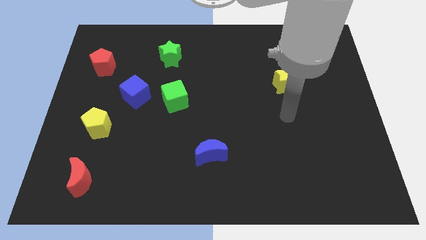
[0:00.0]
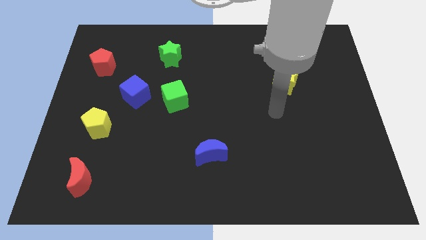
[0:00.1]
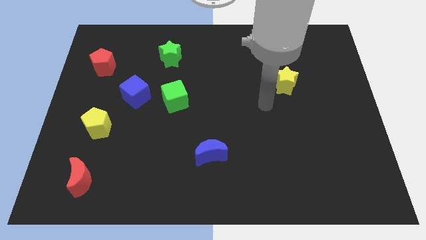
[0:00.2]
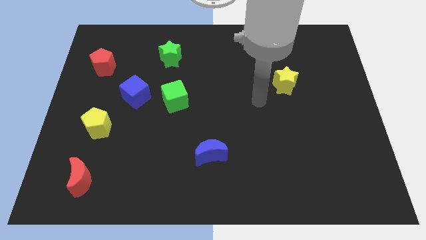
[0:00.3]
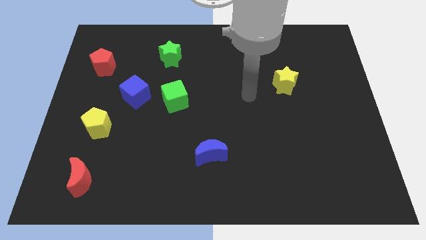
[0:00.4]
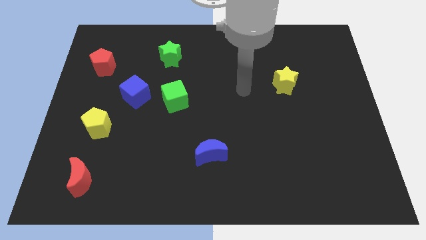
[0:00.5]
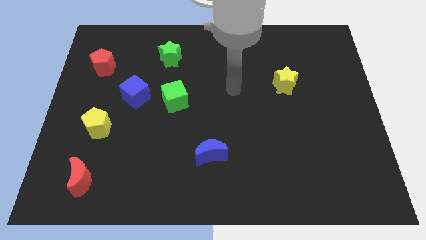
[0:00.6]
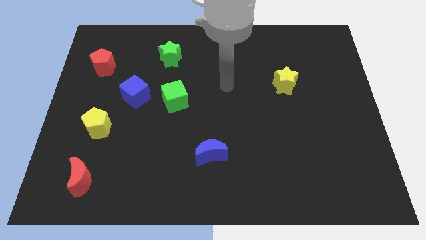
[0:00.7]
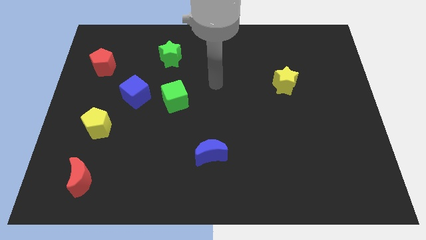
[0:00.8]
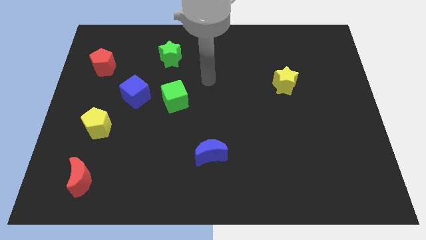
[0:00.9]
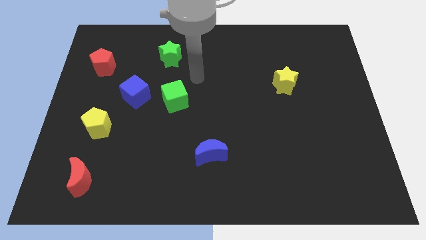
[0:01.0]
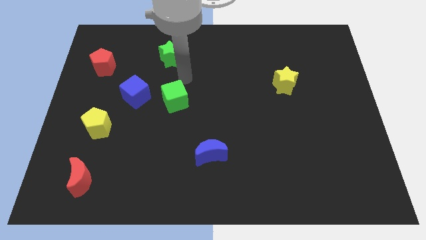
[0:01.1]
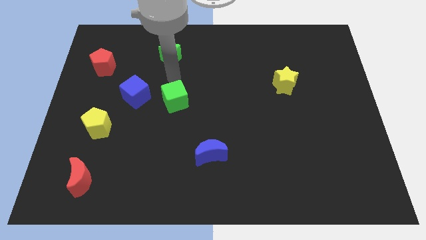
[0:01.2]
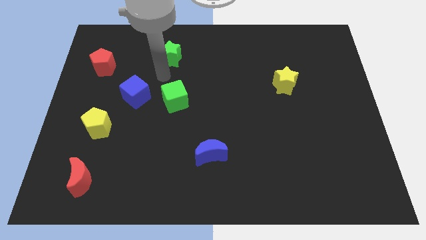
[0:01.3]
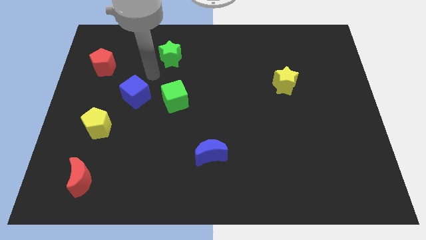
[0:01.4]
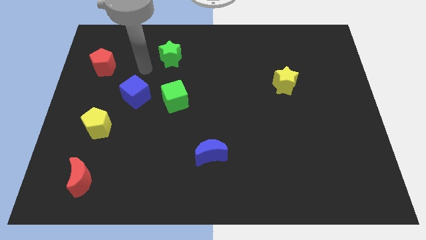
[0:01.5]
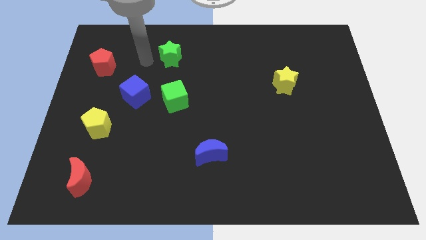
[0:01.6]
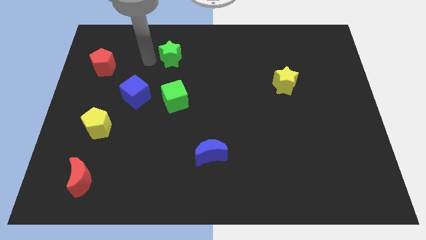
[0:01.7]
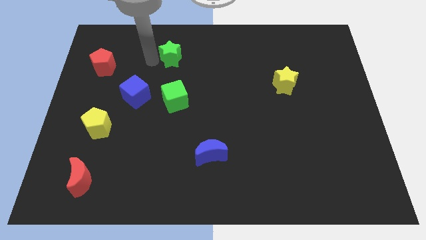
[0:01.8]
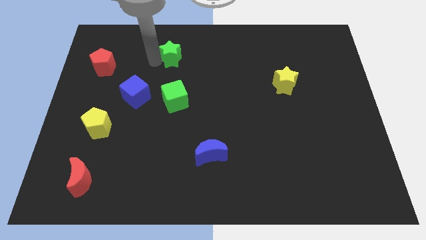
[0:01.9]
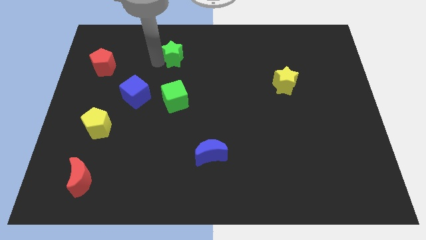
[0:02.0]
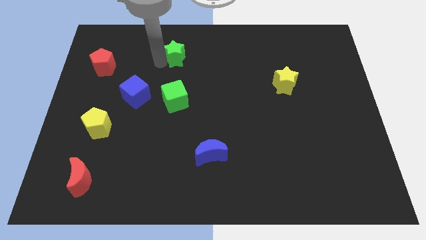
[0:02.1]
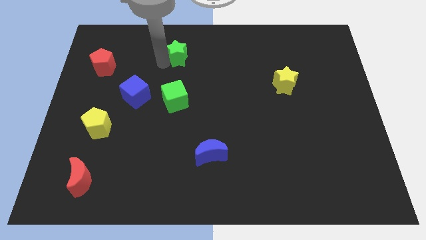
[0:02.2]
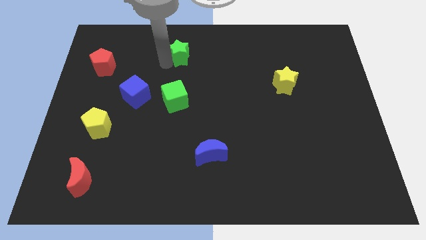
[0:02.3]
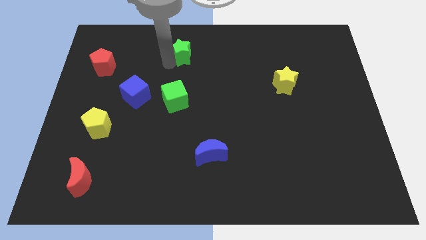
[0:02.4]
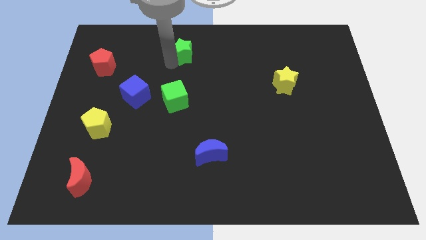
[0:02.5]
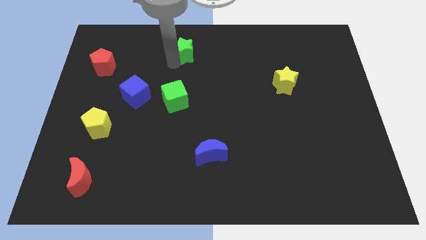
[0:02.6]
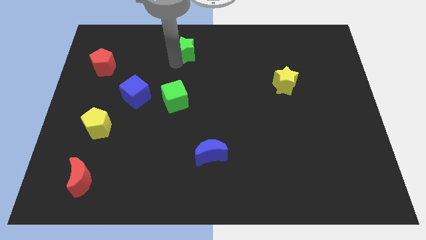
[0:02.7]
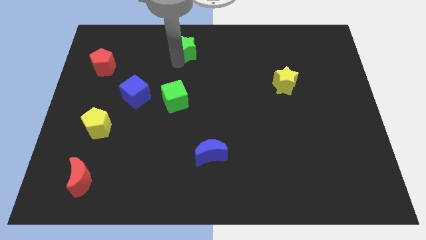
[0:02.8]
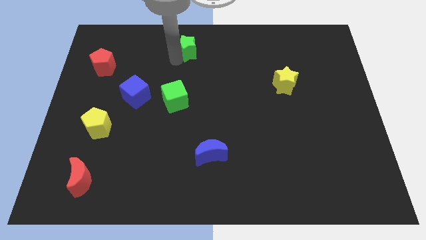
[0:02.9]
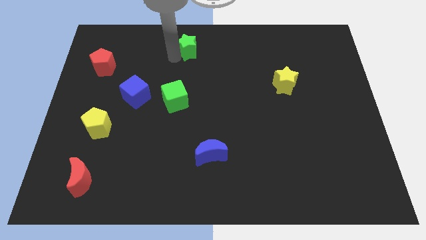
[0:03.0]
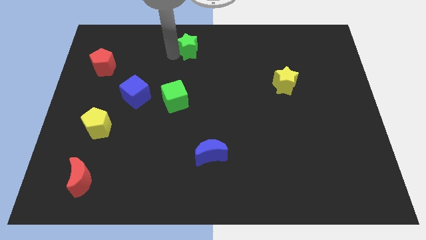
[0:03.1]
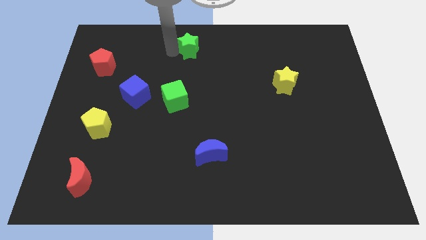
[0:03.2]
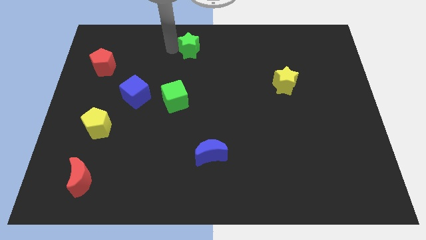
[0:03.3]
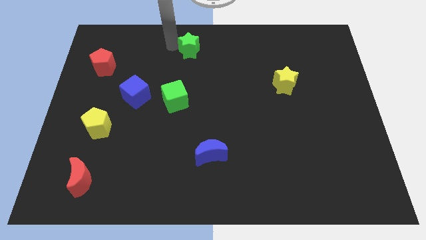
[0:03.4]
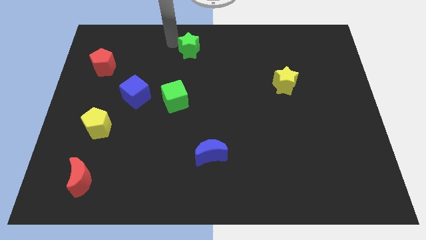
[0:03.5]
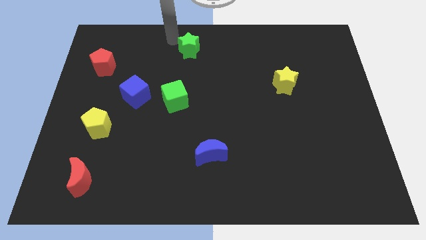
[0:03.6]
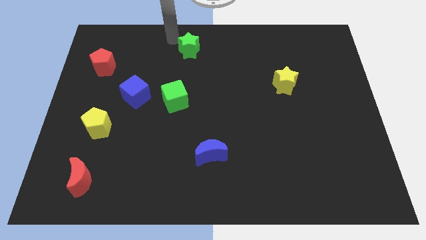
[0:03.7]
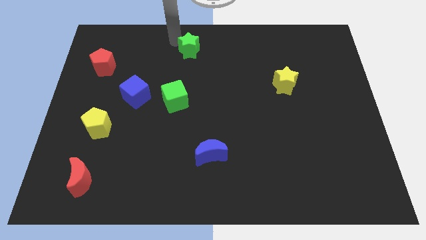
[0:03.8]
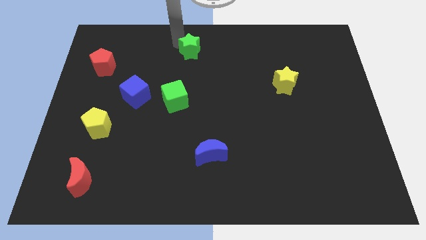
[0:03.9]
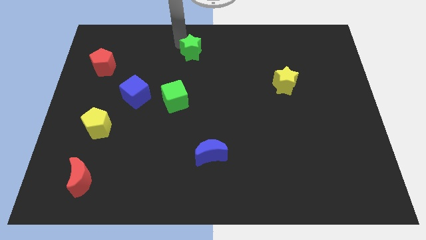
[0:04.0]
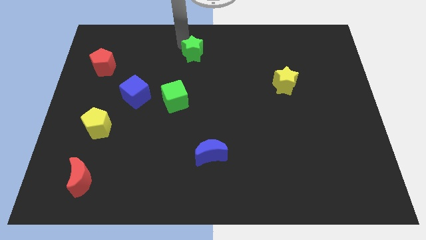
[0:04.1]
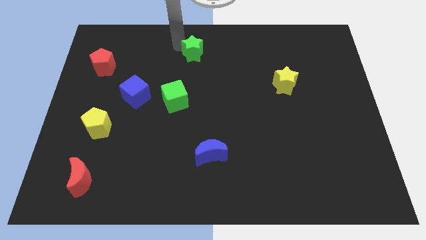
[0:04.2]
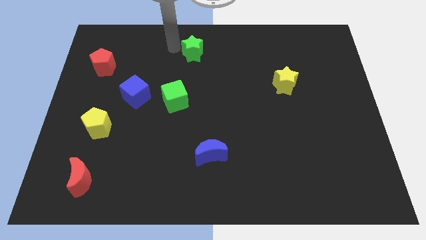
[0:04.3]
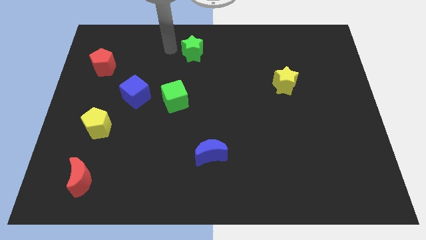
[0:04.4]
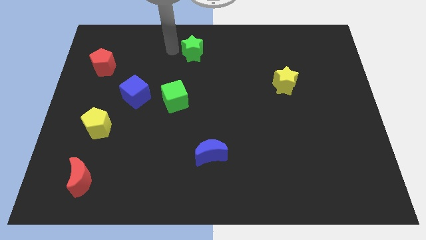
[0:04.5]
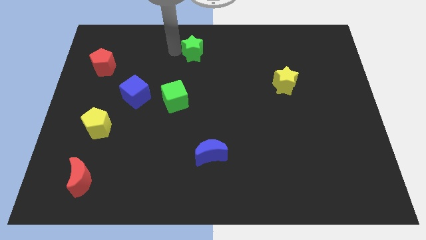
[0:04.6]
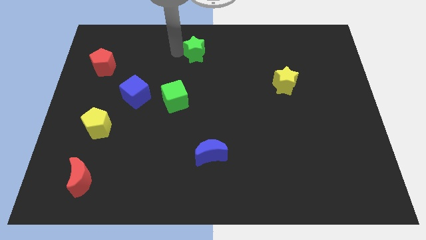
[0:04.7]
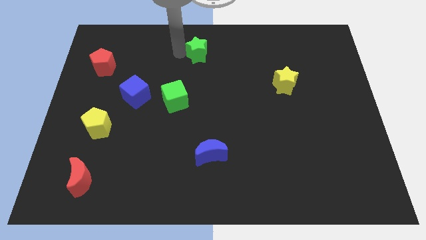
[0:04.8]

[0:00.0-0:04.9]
slide the green star slightly to the right

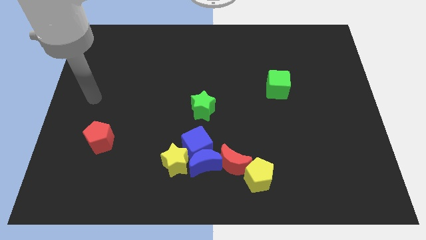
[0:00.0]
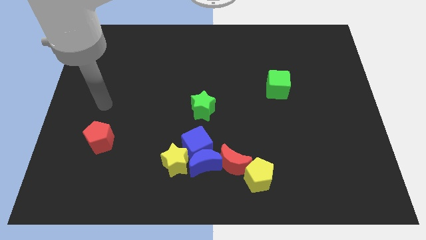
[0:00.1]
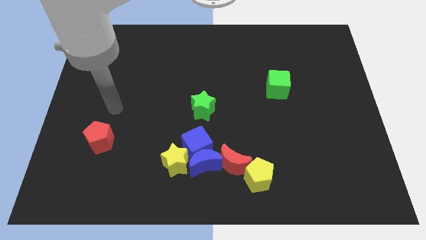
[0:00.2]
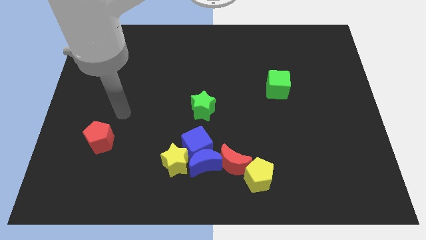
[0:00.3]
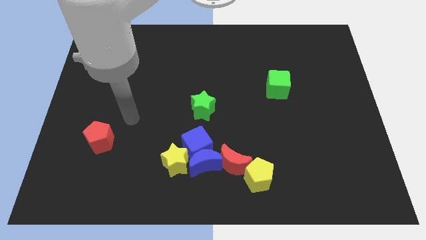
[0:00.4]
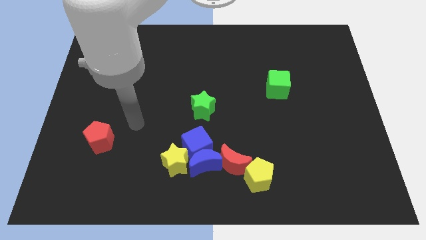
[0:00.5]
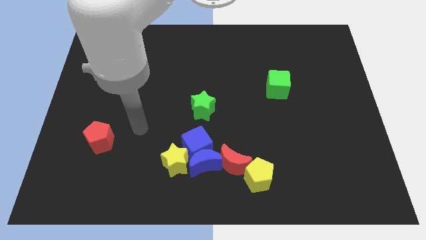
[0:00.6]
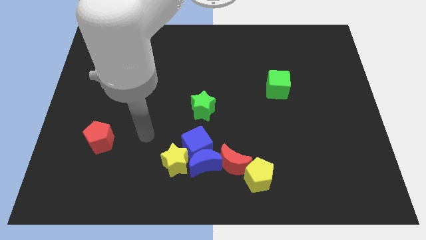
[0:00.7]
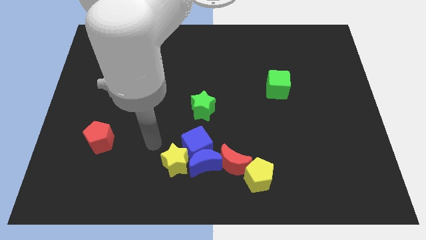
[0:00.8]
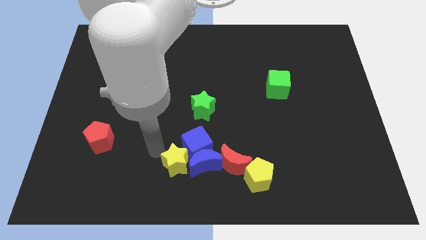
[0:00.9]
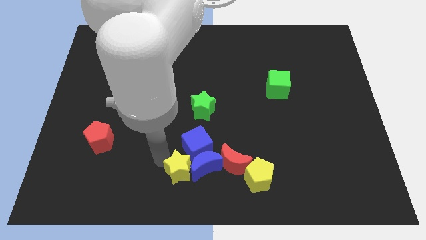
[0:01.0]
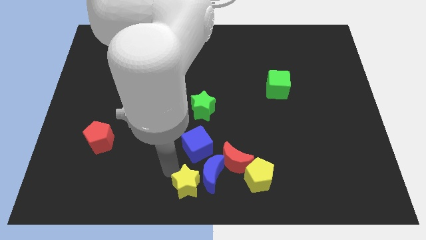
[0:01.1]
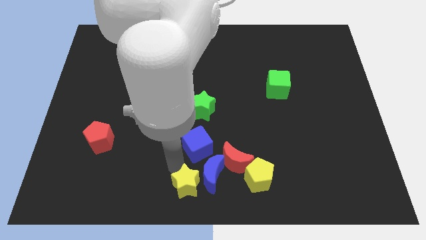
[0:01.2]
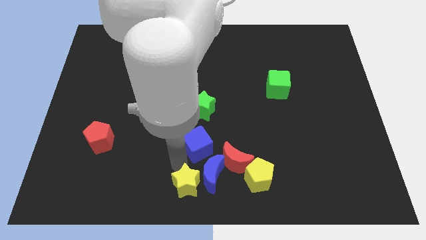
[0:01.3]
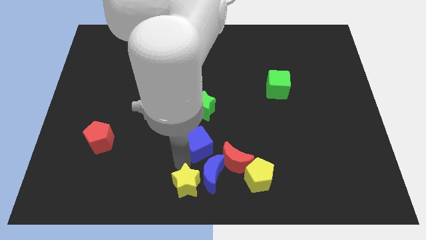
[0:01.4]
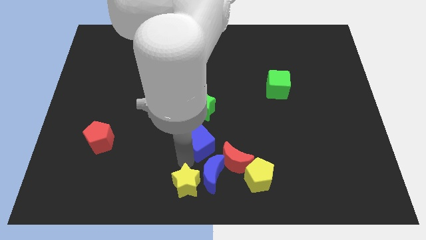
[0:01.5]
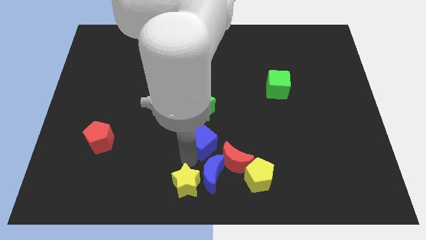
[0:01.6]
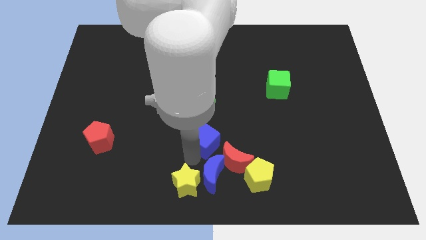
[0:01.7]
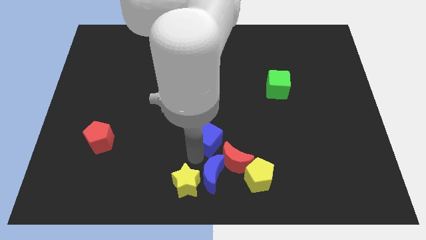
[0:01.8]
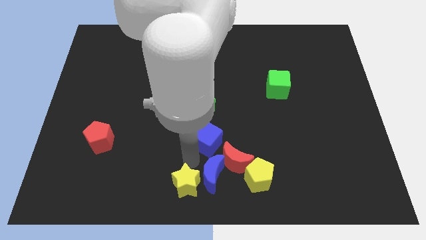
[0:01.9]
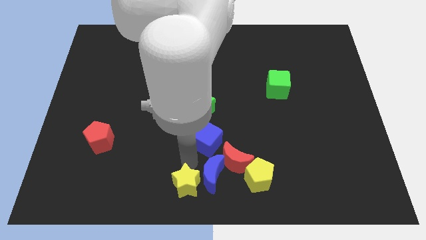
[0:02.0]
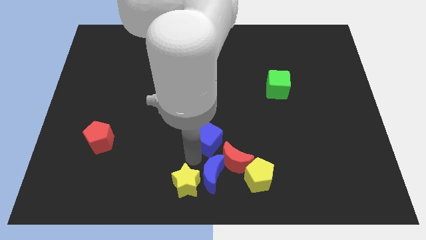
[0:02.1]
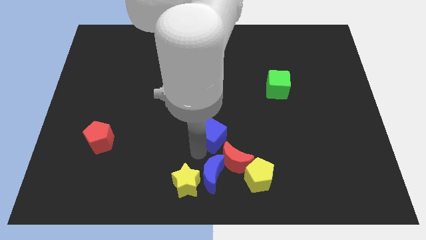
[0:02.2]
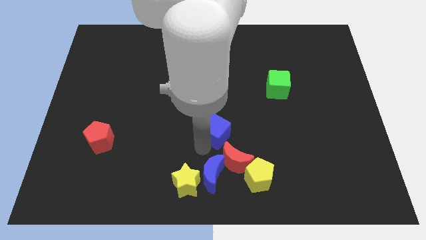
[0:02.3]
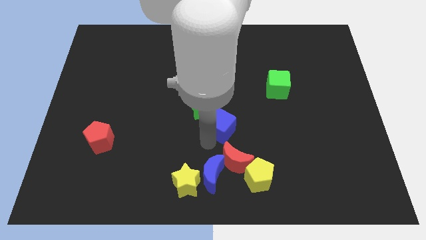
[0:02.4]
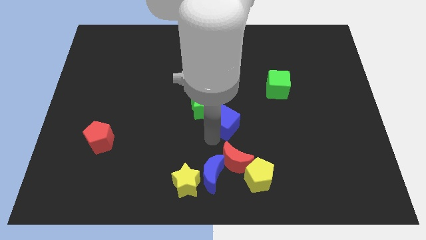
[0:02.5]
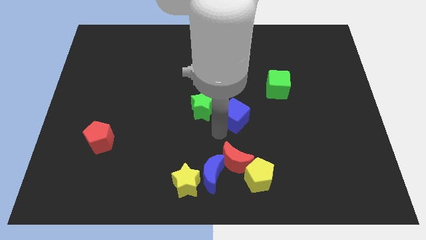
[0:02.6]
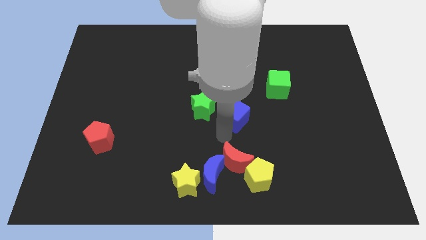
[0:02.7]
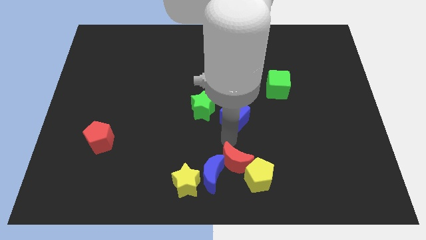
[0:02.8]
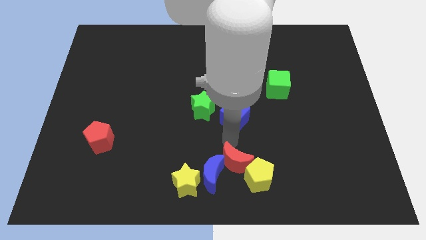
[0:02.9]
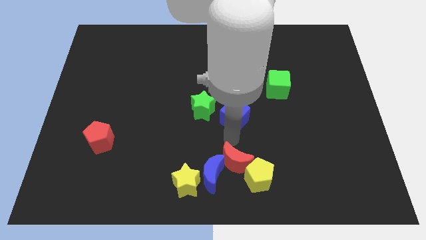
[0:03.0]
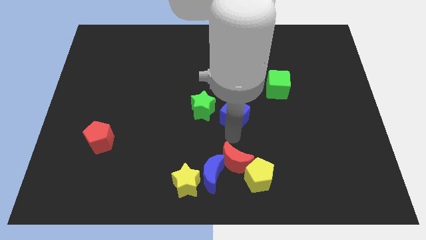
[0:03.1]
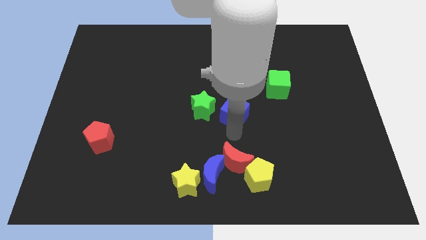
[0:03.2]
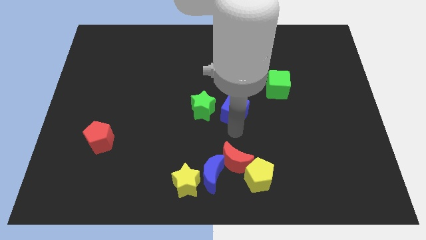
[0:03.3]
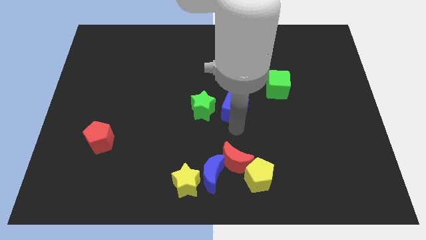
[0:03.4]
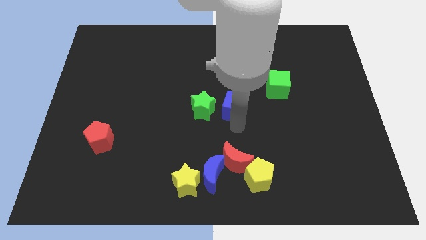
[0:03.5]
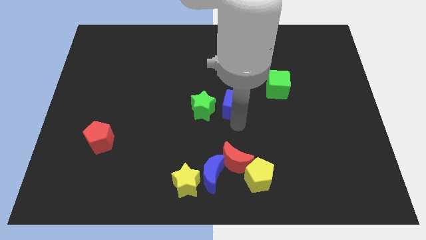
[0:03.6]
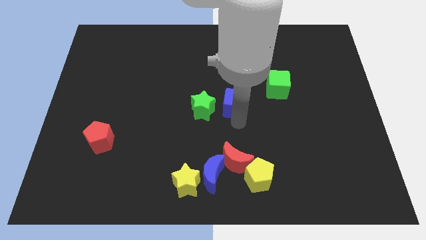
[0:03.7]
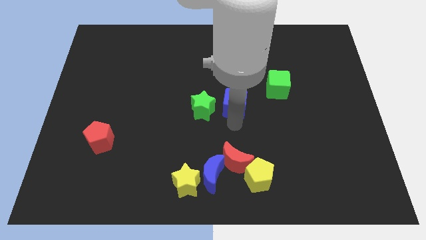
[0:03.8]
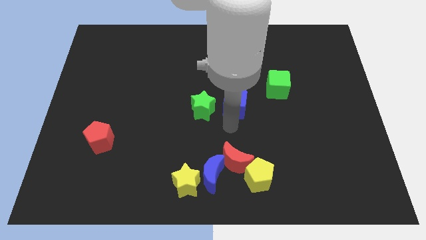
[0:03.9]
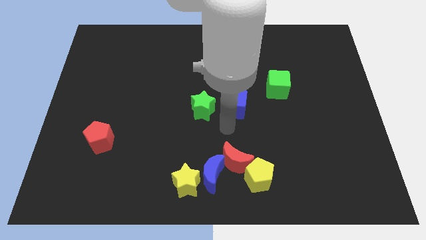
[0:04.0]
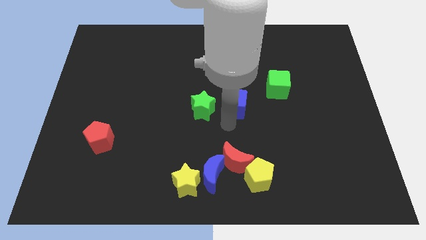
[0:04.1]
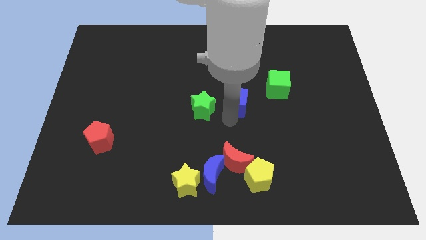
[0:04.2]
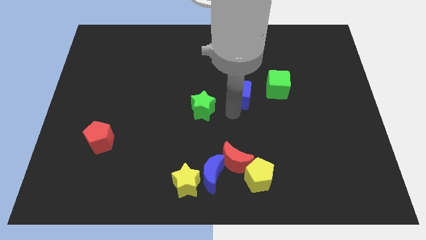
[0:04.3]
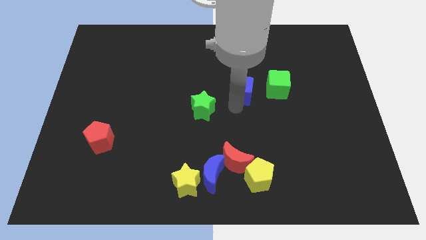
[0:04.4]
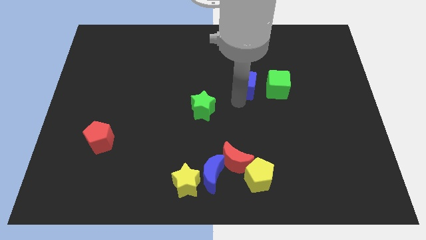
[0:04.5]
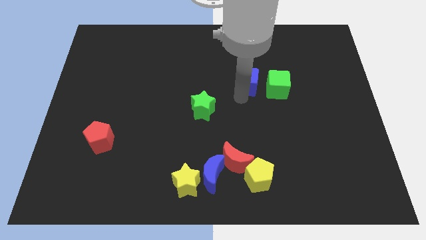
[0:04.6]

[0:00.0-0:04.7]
slide the blue cube up and to the right diagonally
